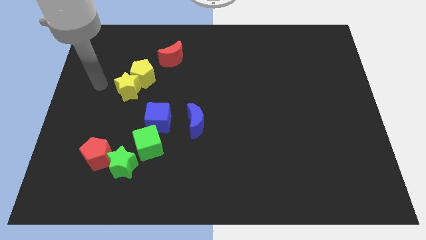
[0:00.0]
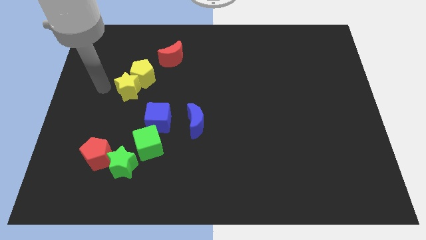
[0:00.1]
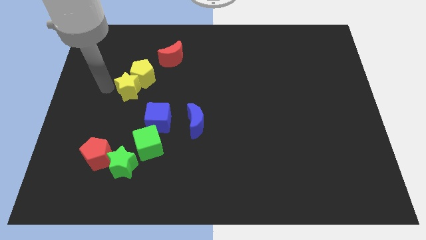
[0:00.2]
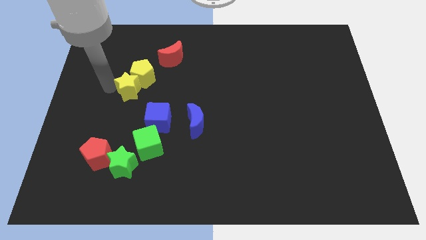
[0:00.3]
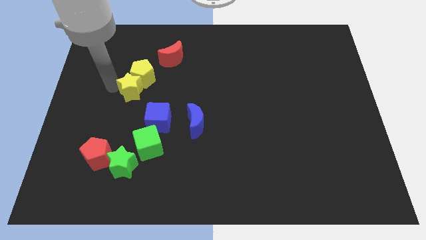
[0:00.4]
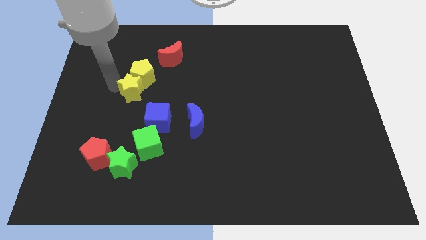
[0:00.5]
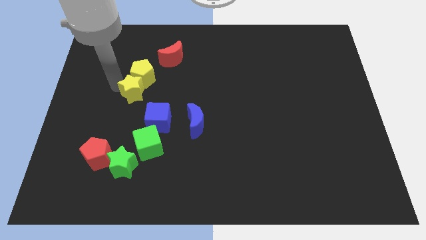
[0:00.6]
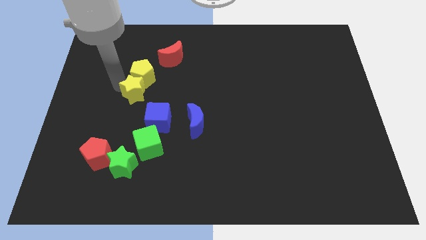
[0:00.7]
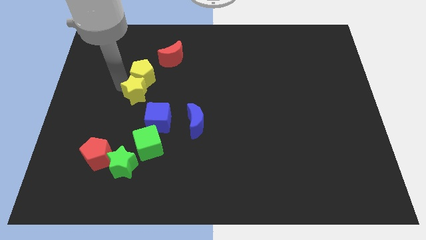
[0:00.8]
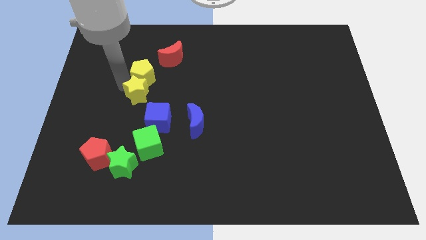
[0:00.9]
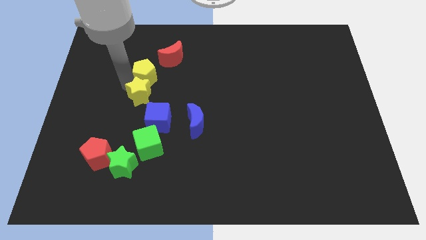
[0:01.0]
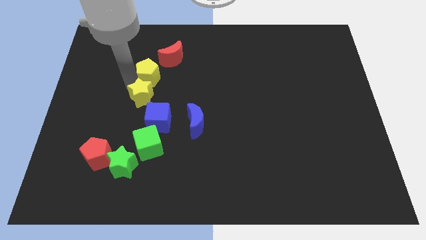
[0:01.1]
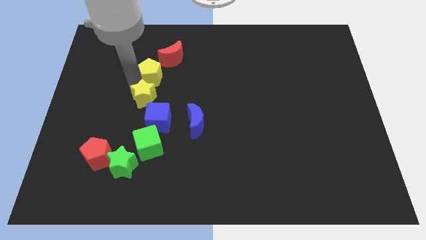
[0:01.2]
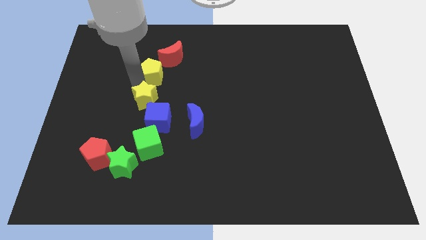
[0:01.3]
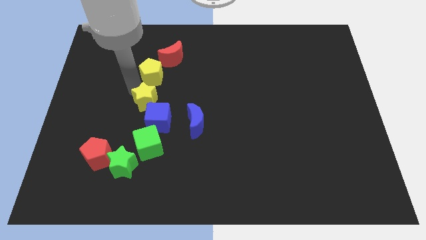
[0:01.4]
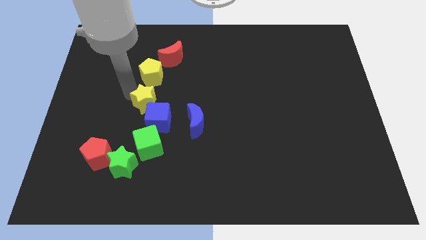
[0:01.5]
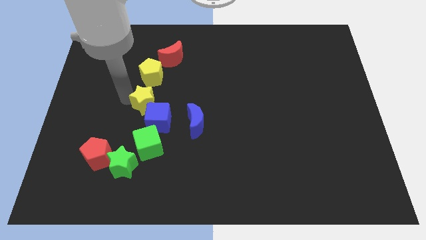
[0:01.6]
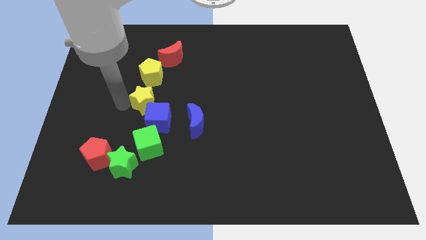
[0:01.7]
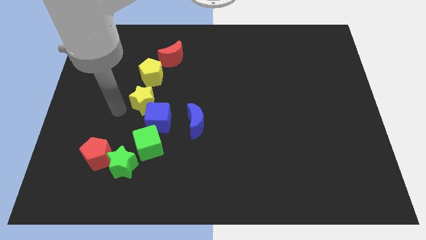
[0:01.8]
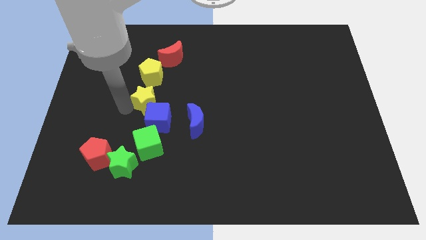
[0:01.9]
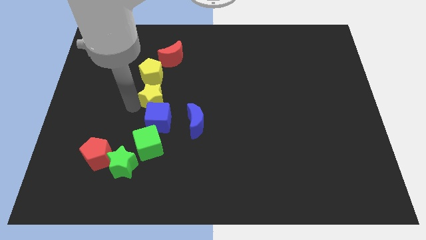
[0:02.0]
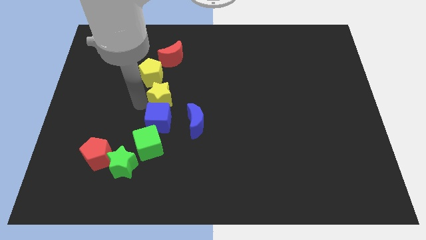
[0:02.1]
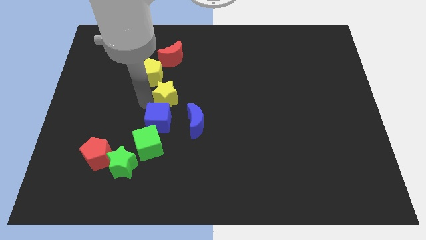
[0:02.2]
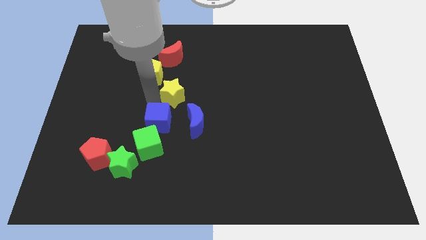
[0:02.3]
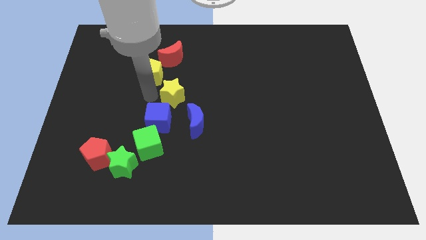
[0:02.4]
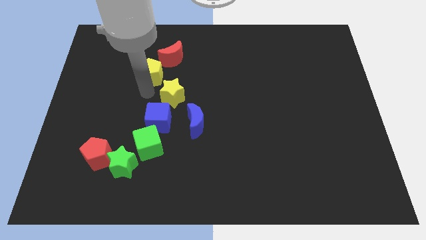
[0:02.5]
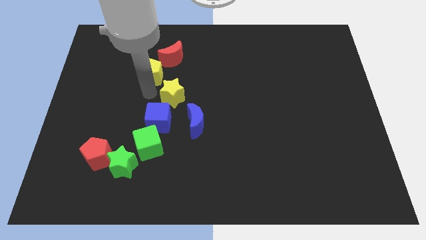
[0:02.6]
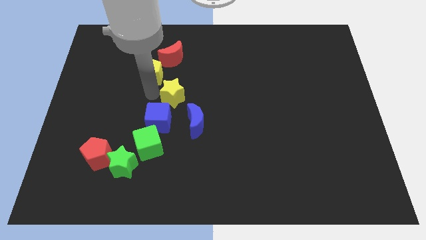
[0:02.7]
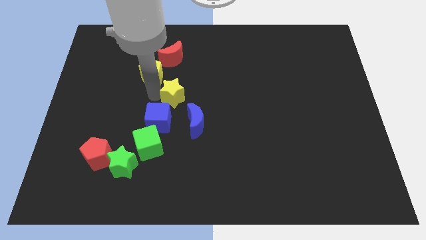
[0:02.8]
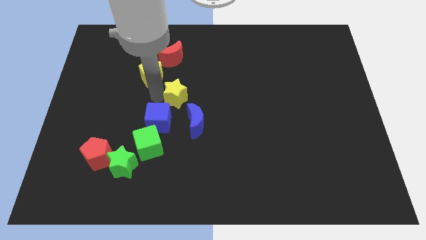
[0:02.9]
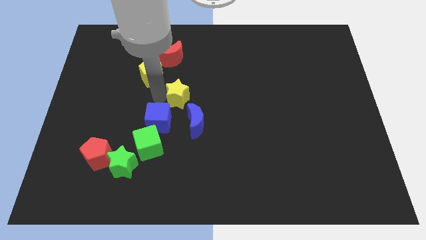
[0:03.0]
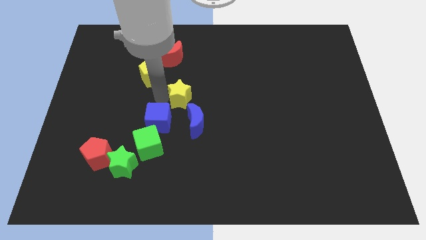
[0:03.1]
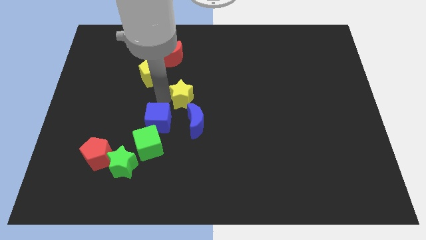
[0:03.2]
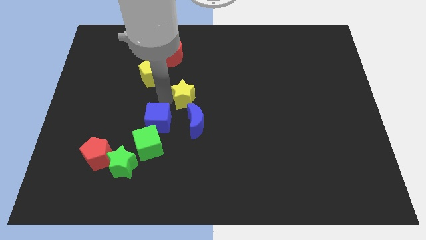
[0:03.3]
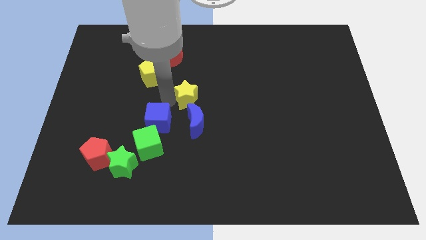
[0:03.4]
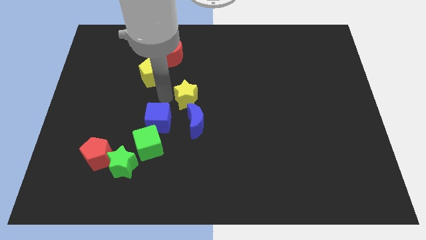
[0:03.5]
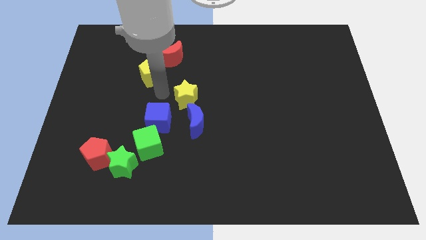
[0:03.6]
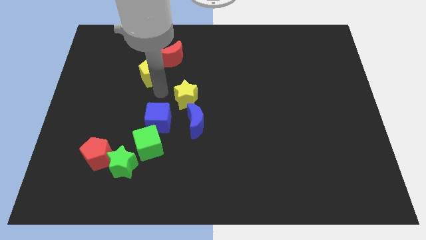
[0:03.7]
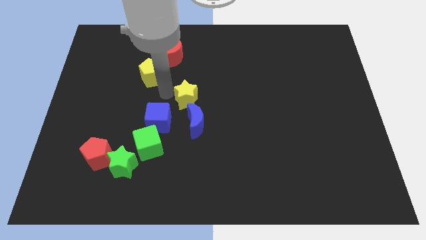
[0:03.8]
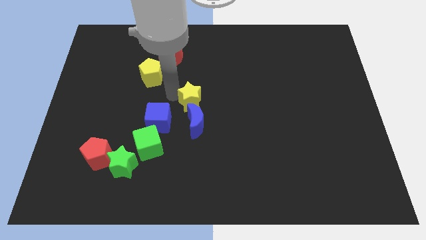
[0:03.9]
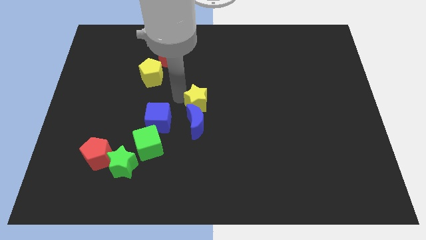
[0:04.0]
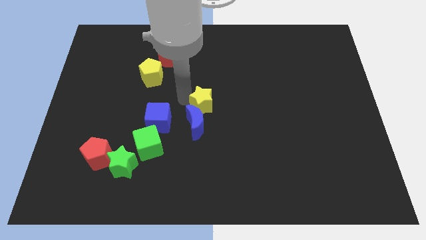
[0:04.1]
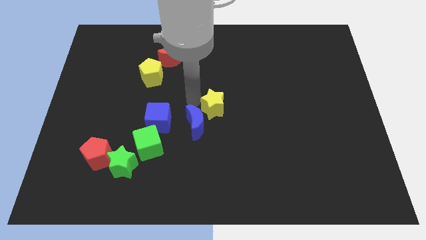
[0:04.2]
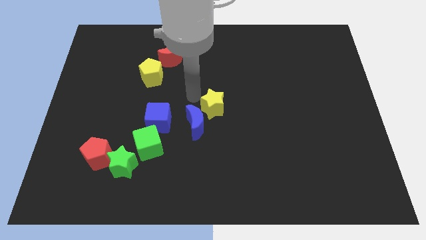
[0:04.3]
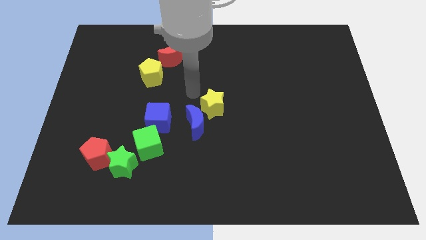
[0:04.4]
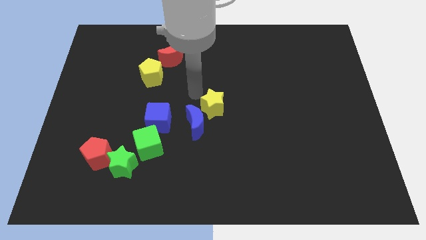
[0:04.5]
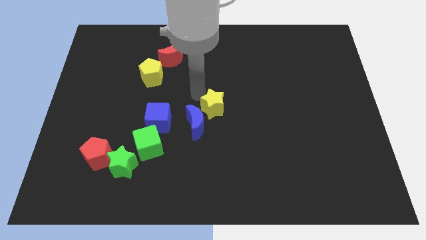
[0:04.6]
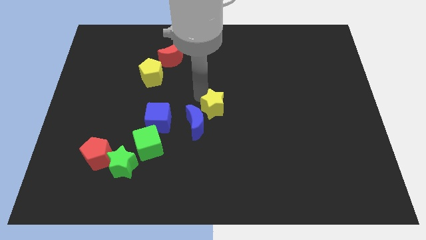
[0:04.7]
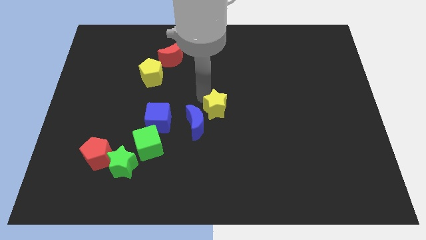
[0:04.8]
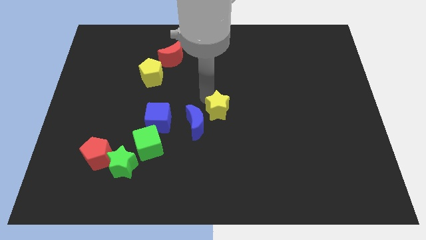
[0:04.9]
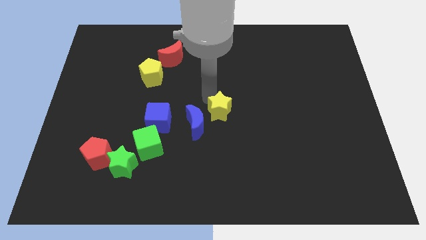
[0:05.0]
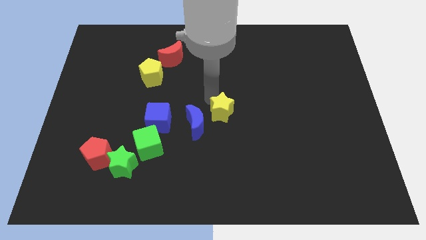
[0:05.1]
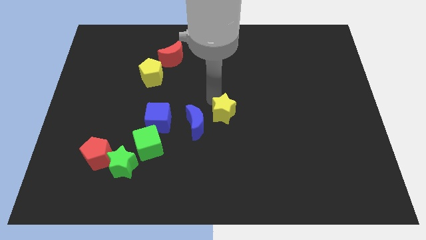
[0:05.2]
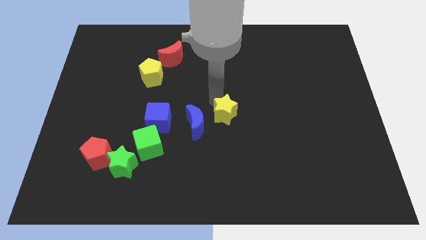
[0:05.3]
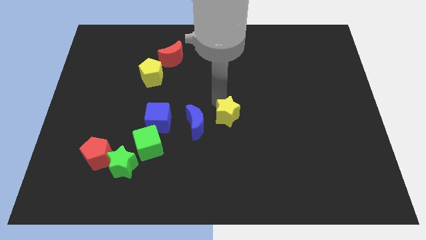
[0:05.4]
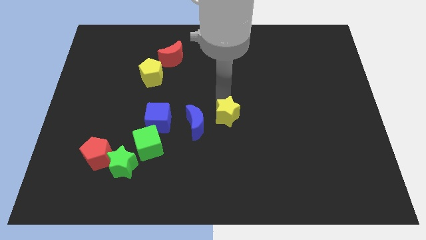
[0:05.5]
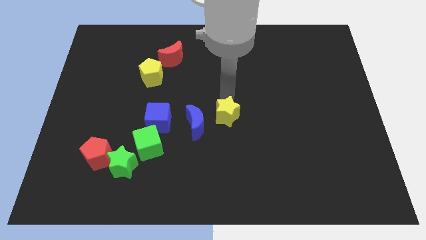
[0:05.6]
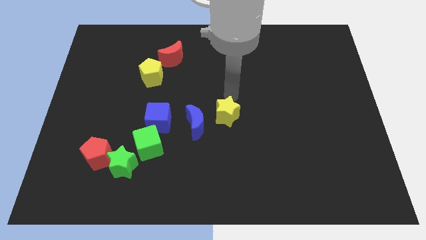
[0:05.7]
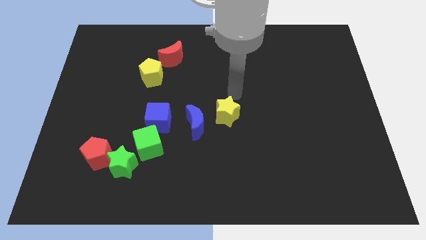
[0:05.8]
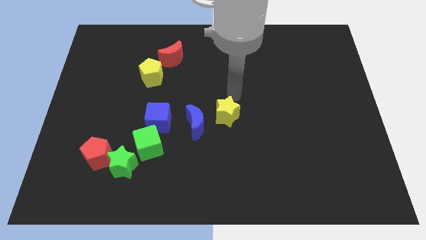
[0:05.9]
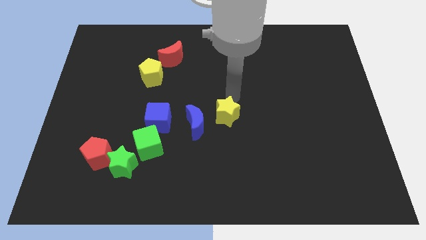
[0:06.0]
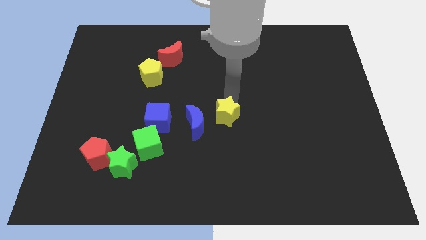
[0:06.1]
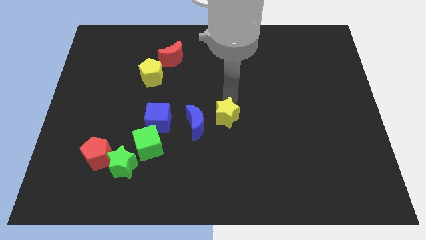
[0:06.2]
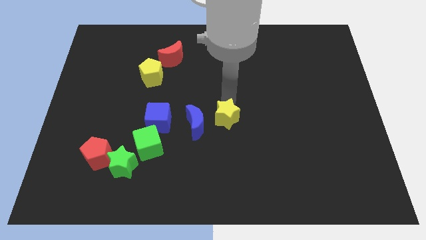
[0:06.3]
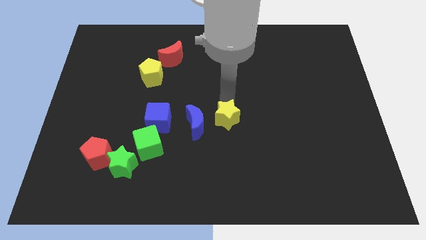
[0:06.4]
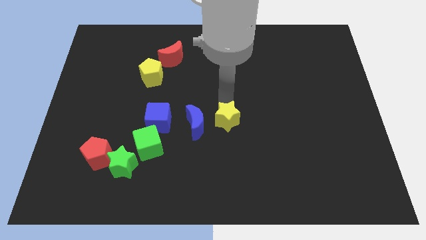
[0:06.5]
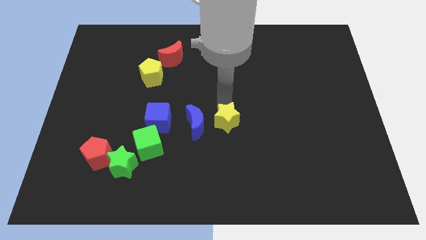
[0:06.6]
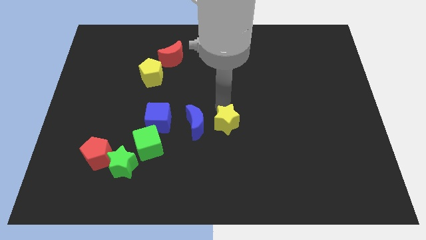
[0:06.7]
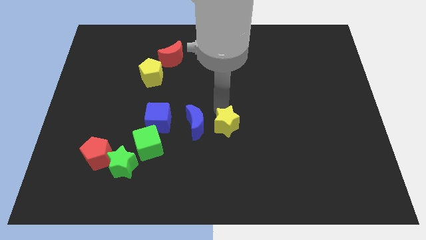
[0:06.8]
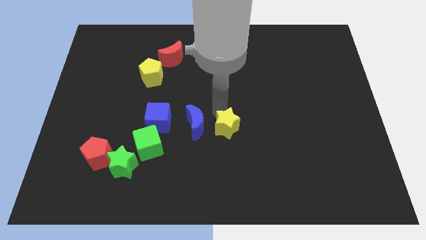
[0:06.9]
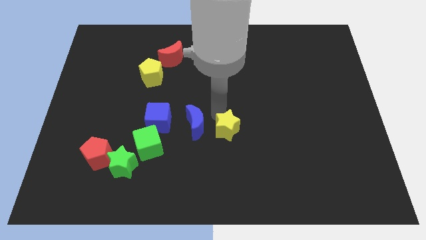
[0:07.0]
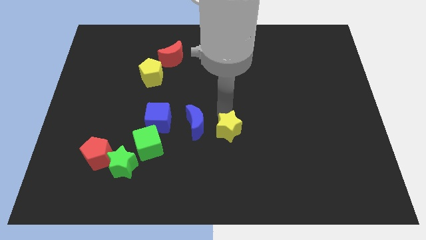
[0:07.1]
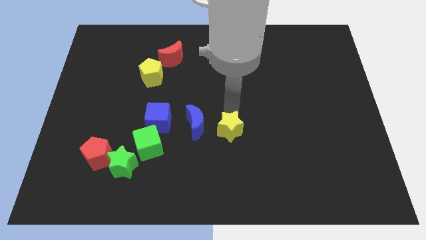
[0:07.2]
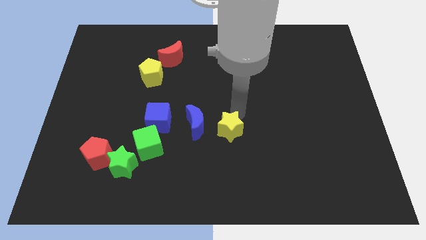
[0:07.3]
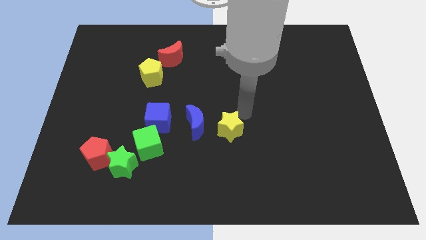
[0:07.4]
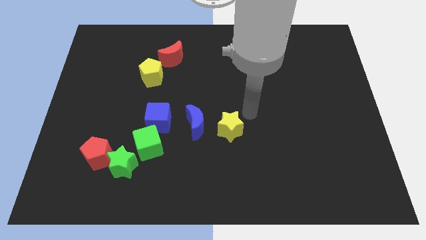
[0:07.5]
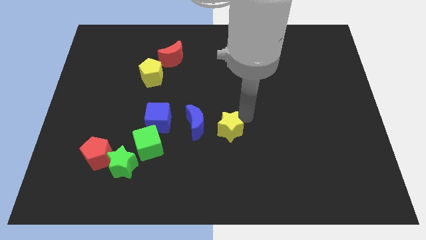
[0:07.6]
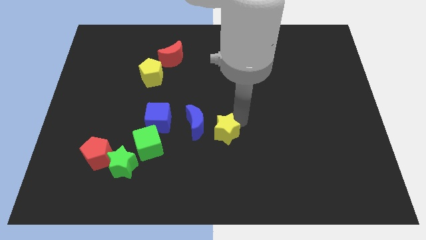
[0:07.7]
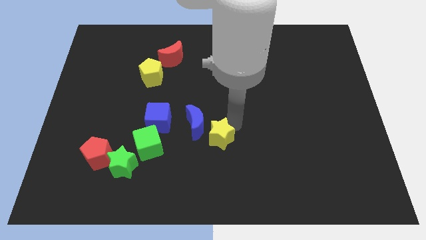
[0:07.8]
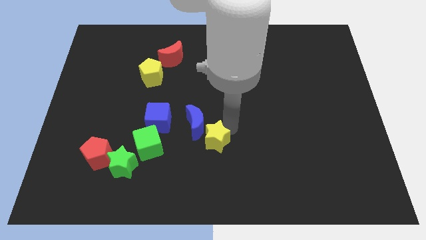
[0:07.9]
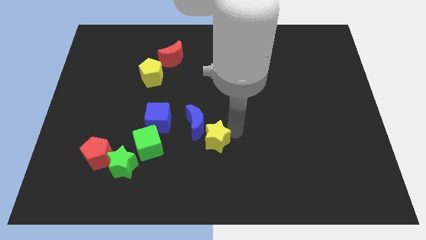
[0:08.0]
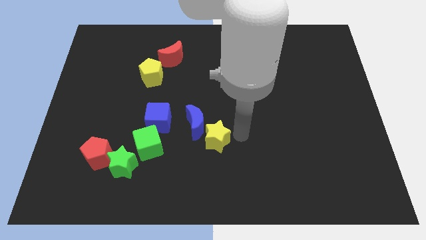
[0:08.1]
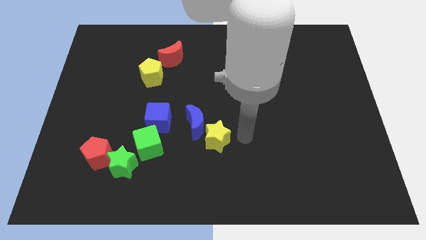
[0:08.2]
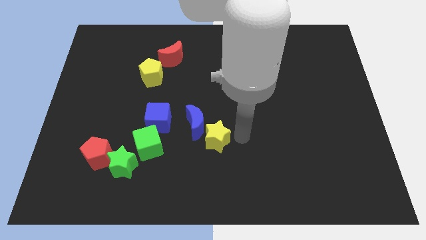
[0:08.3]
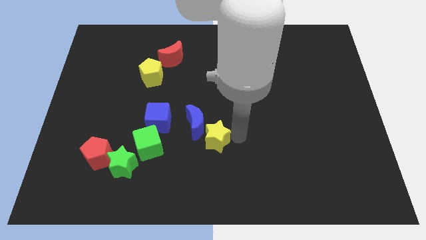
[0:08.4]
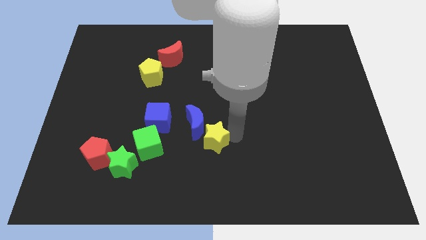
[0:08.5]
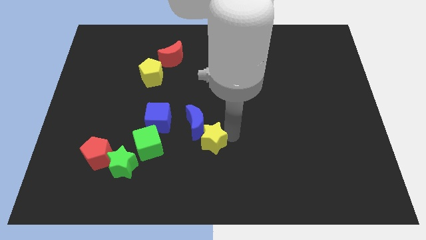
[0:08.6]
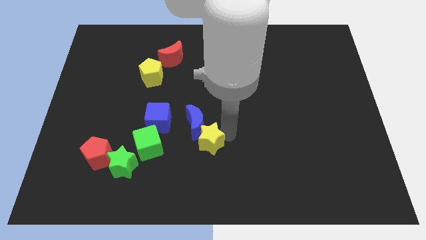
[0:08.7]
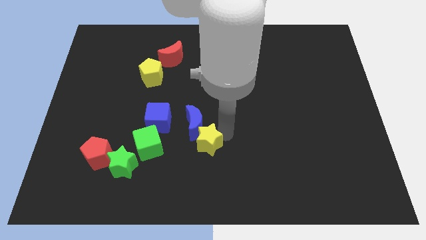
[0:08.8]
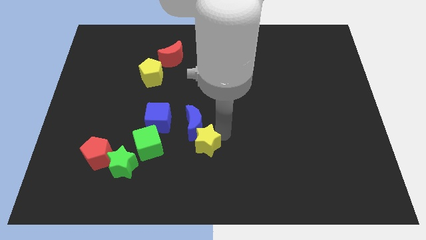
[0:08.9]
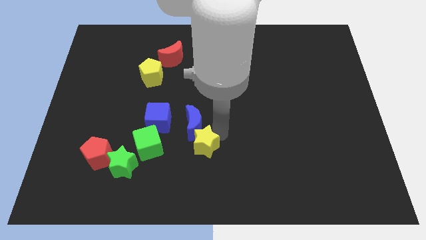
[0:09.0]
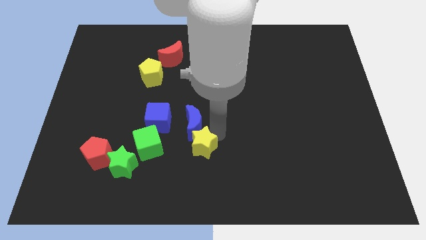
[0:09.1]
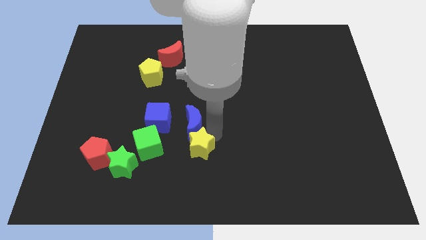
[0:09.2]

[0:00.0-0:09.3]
move the yellow star diagonally down and to the left of the blue moon
